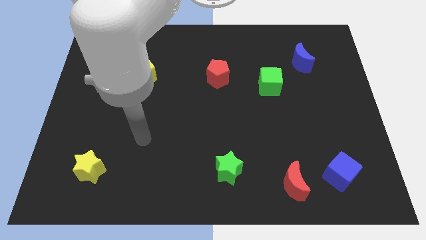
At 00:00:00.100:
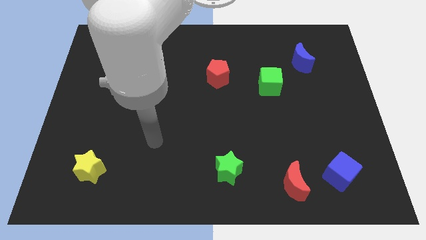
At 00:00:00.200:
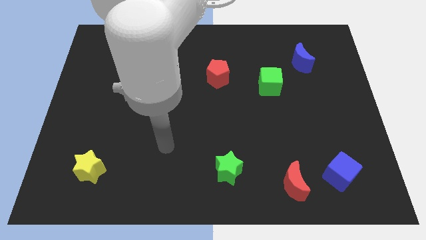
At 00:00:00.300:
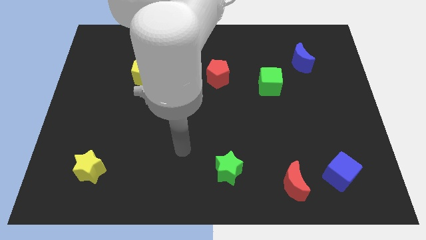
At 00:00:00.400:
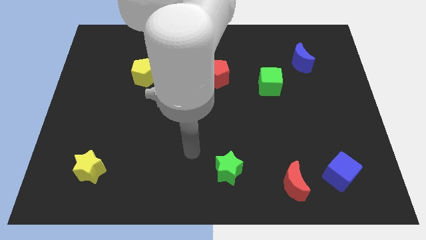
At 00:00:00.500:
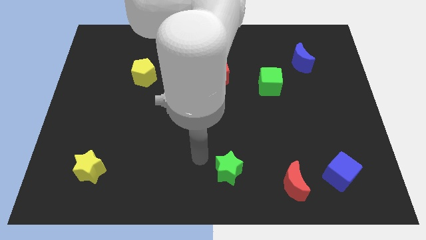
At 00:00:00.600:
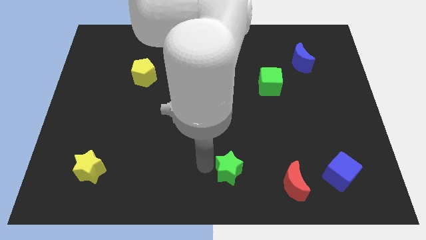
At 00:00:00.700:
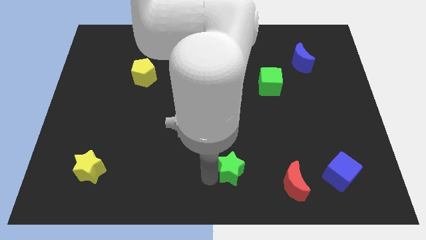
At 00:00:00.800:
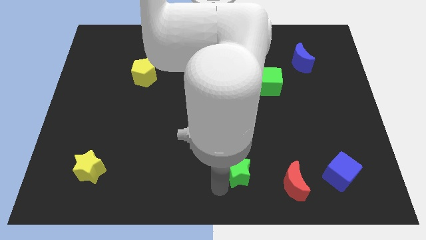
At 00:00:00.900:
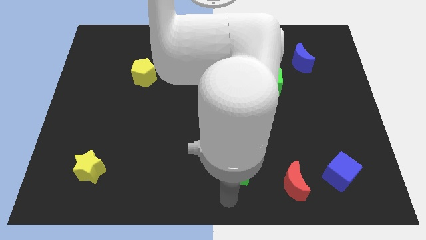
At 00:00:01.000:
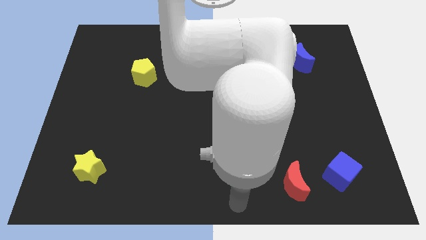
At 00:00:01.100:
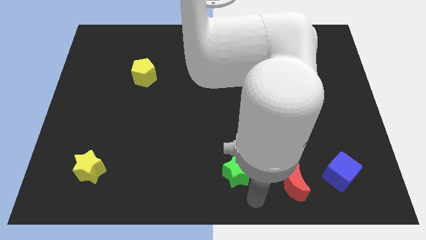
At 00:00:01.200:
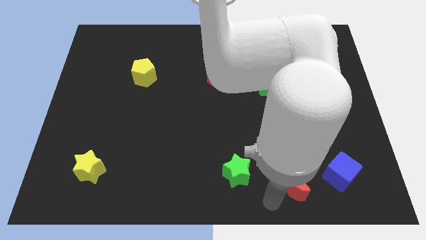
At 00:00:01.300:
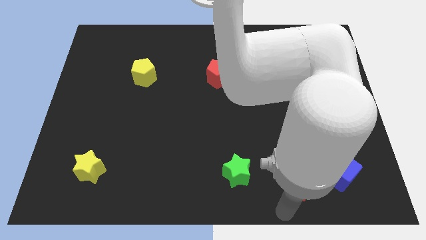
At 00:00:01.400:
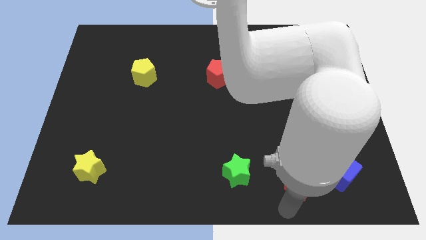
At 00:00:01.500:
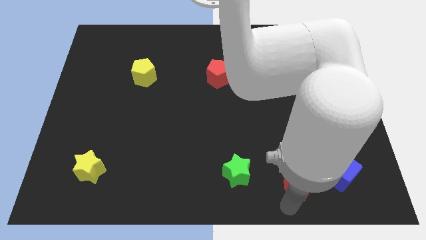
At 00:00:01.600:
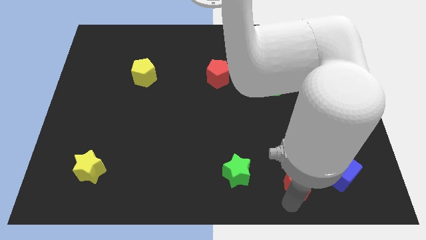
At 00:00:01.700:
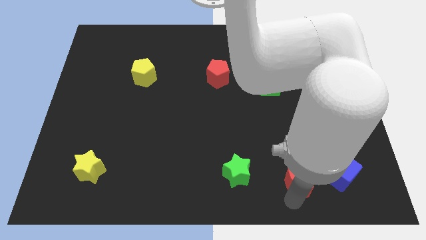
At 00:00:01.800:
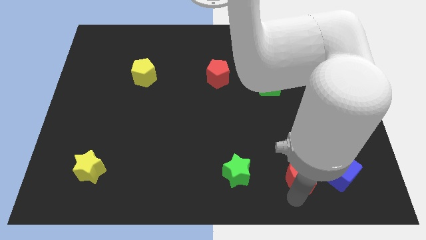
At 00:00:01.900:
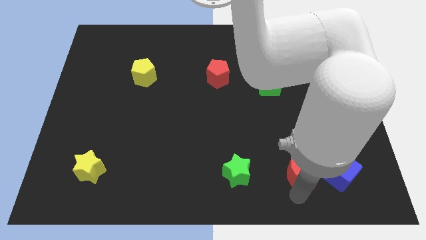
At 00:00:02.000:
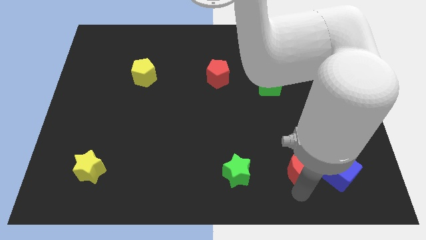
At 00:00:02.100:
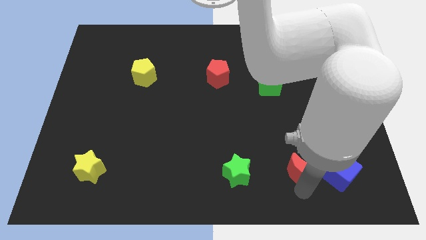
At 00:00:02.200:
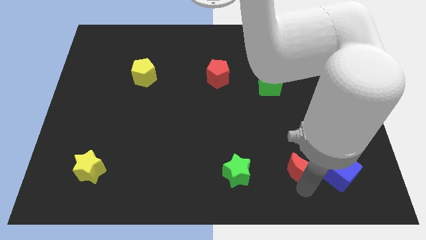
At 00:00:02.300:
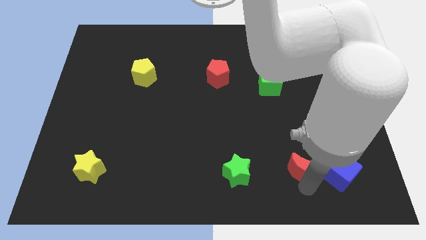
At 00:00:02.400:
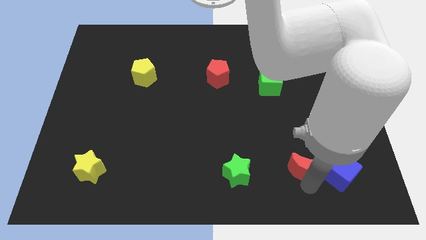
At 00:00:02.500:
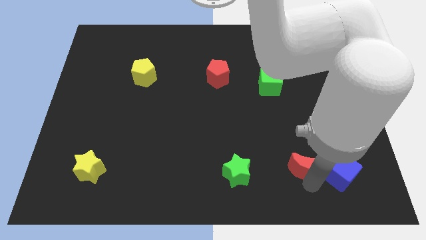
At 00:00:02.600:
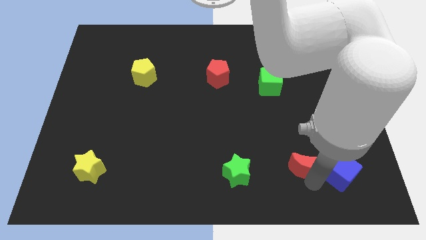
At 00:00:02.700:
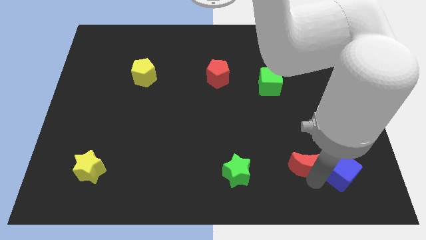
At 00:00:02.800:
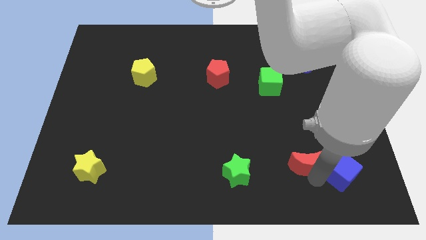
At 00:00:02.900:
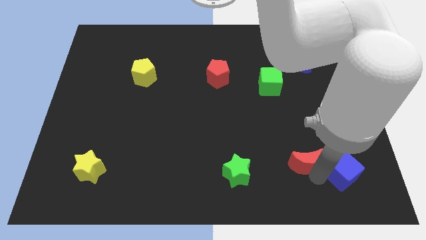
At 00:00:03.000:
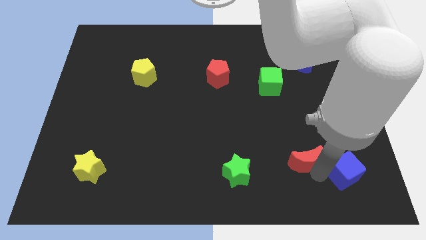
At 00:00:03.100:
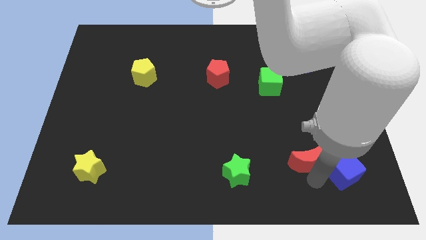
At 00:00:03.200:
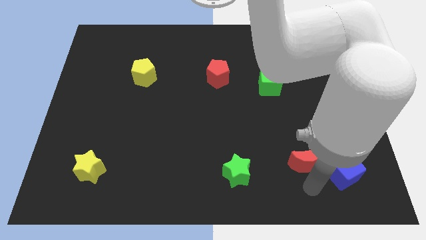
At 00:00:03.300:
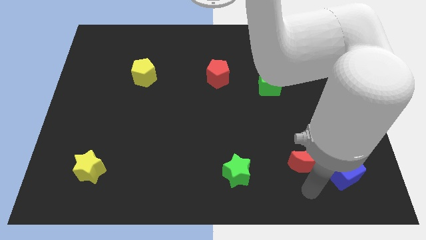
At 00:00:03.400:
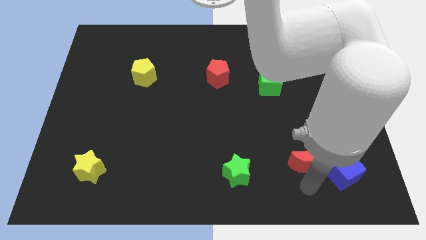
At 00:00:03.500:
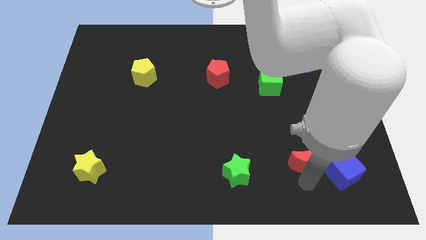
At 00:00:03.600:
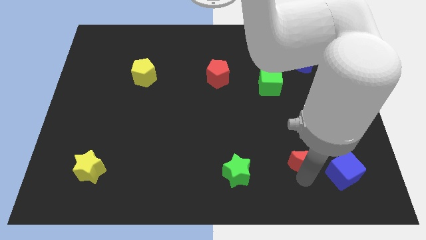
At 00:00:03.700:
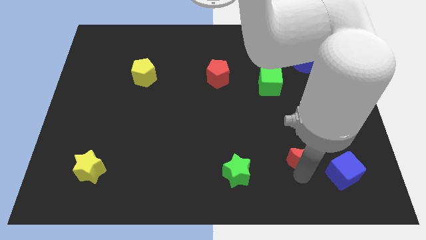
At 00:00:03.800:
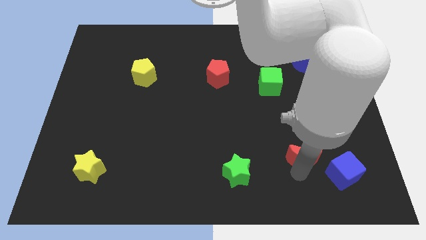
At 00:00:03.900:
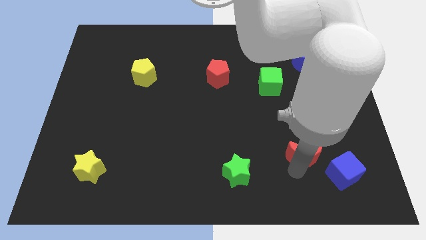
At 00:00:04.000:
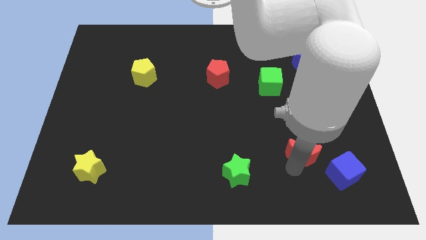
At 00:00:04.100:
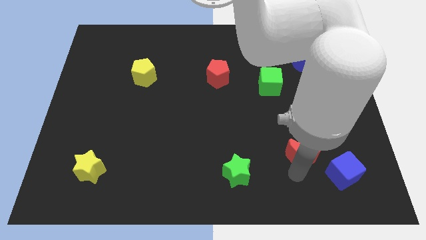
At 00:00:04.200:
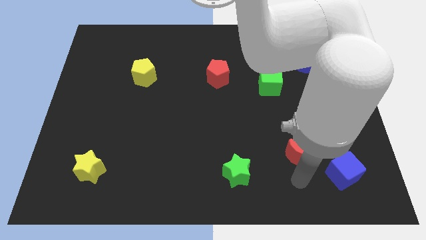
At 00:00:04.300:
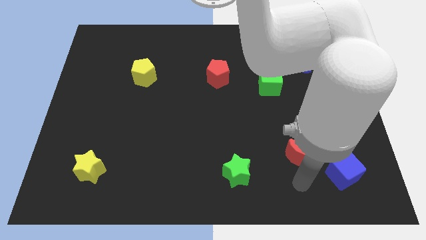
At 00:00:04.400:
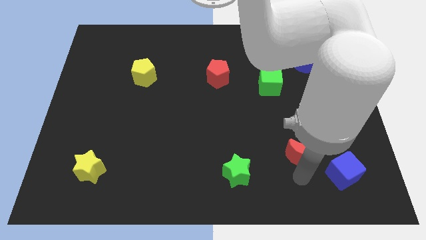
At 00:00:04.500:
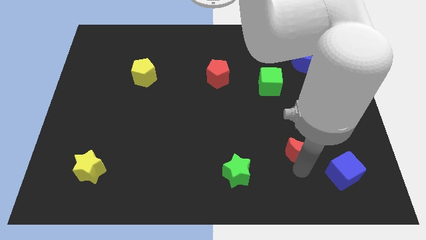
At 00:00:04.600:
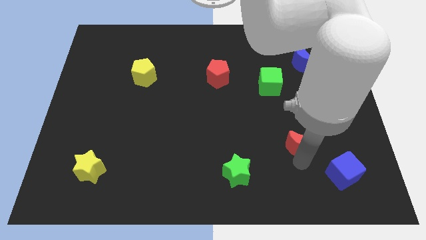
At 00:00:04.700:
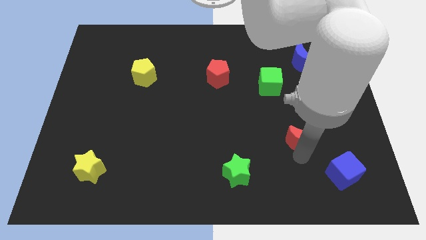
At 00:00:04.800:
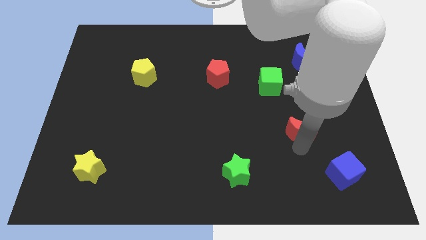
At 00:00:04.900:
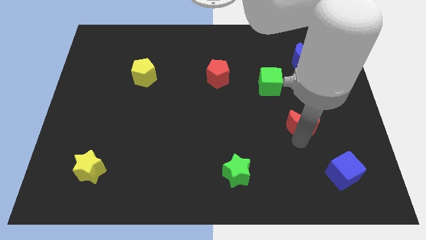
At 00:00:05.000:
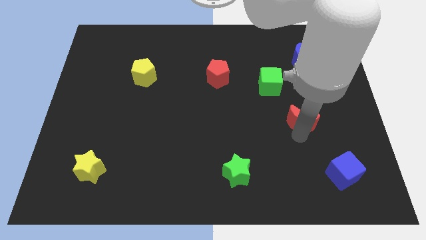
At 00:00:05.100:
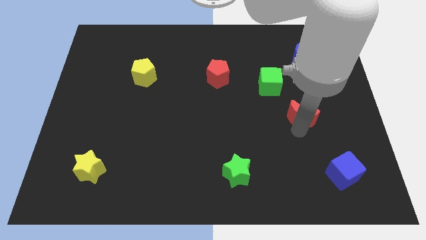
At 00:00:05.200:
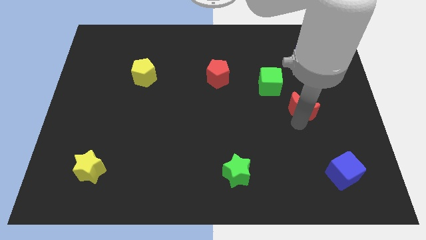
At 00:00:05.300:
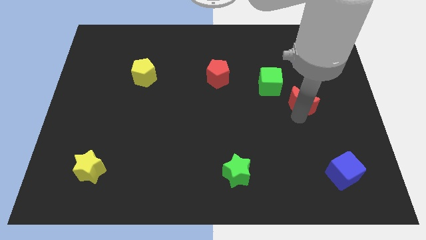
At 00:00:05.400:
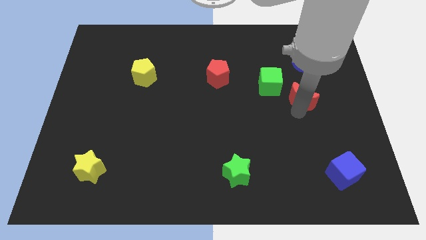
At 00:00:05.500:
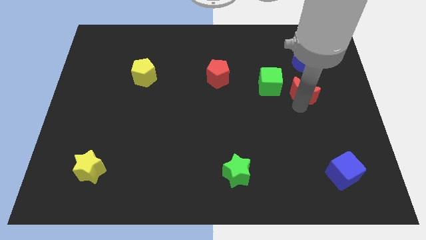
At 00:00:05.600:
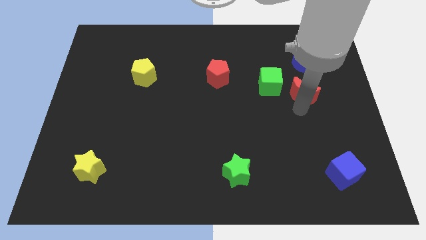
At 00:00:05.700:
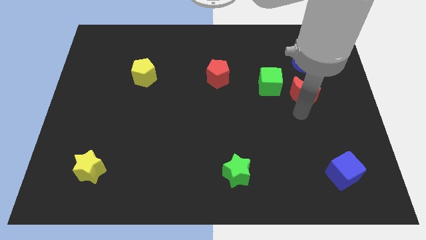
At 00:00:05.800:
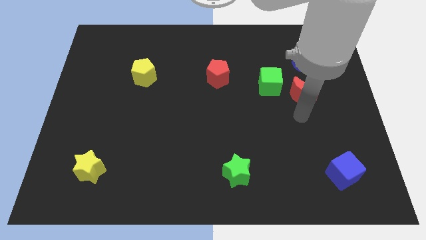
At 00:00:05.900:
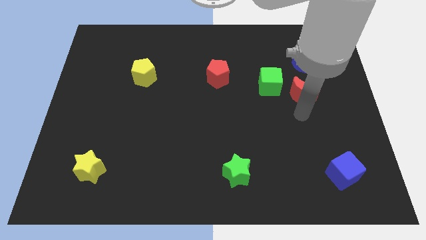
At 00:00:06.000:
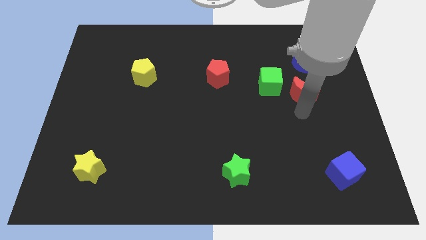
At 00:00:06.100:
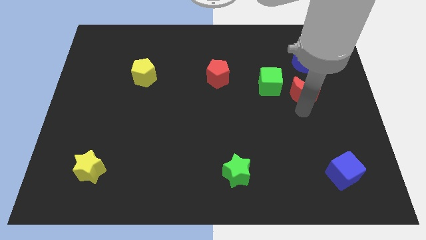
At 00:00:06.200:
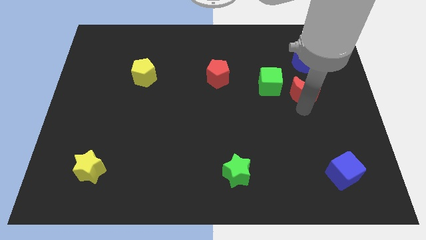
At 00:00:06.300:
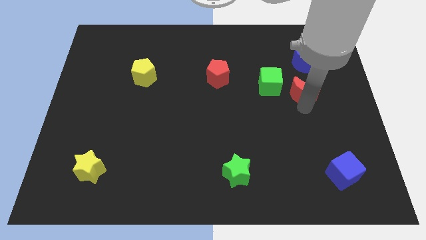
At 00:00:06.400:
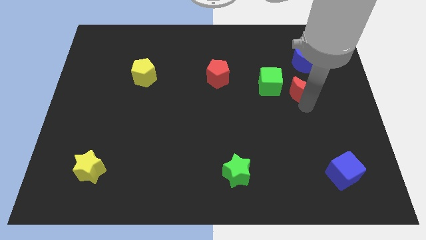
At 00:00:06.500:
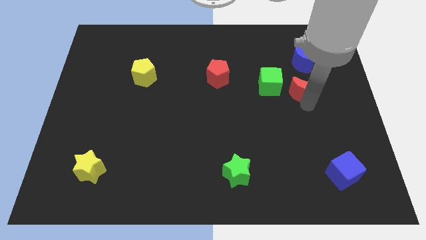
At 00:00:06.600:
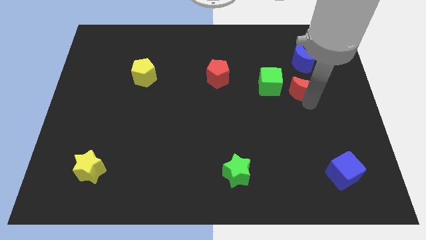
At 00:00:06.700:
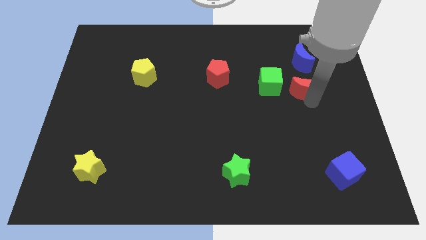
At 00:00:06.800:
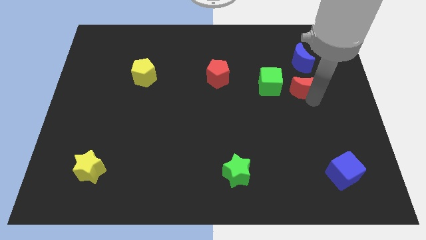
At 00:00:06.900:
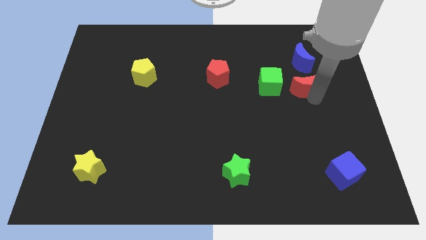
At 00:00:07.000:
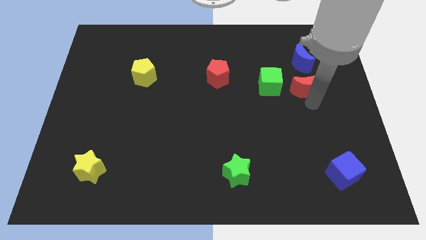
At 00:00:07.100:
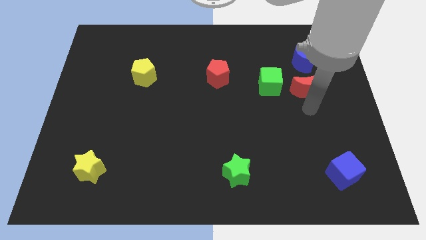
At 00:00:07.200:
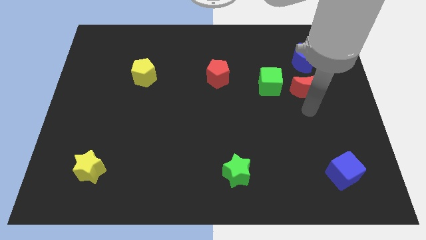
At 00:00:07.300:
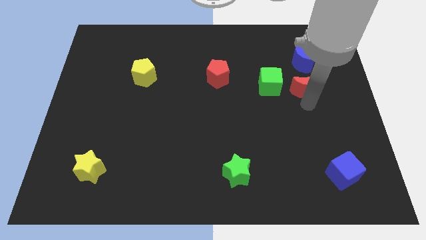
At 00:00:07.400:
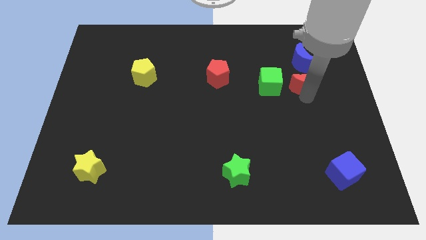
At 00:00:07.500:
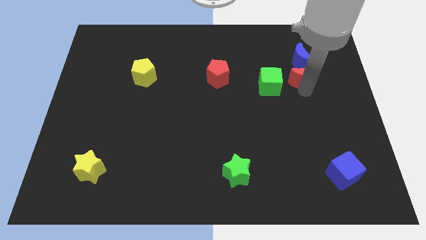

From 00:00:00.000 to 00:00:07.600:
push the red moon towards the blue moon
